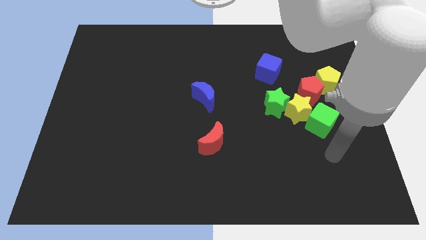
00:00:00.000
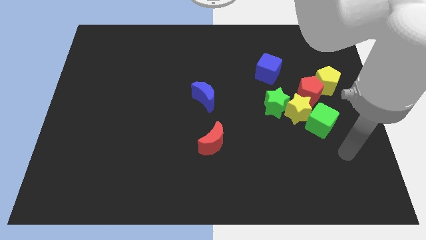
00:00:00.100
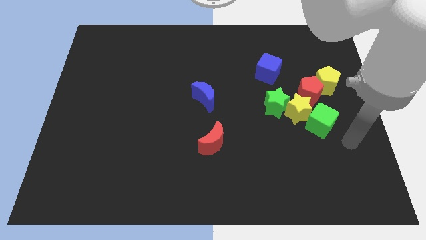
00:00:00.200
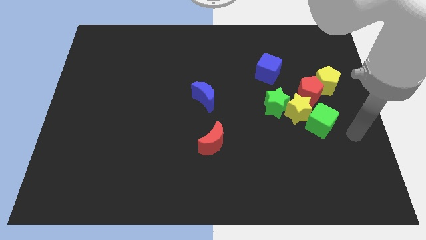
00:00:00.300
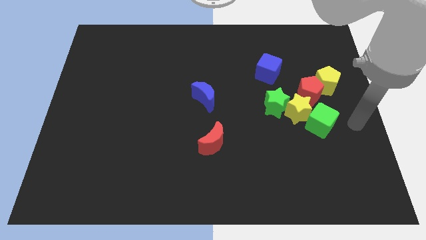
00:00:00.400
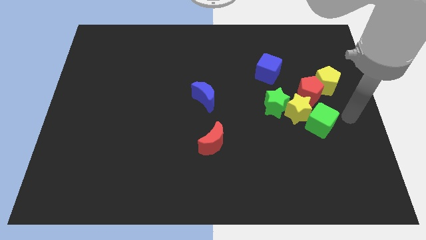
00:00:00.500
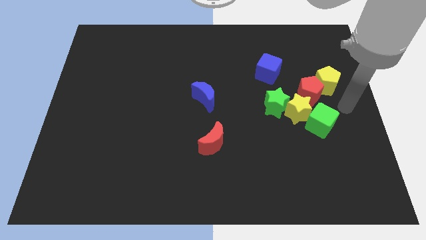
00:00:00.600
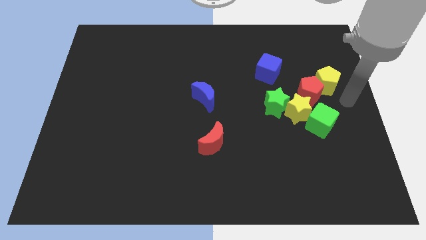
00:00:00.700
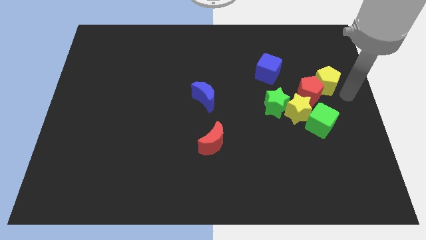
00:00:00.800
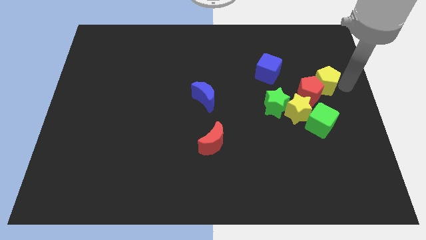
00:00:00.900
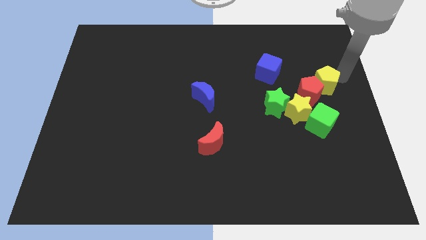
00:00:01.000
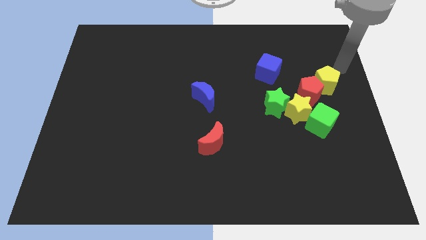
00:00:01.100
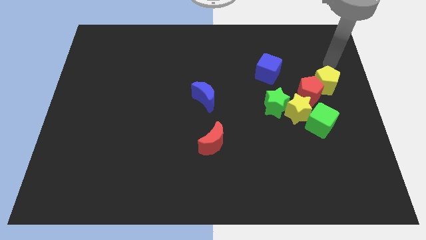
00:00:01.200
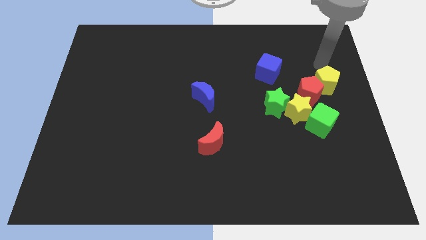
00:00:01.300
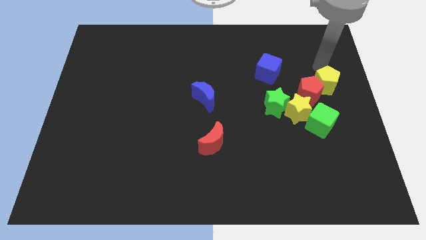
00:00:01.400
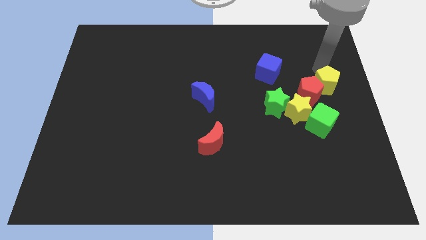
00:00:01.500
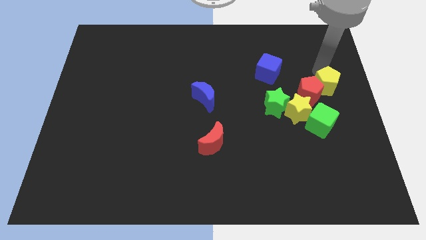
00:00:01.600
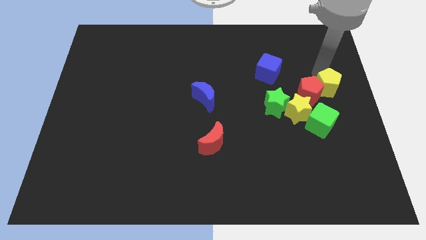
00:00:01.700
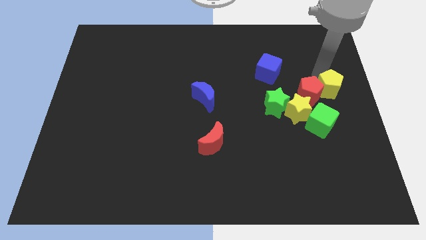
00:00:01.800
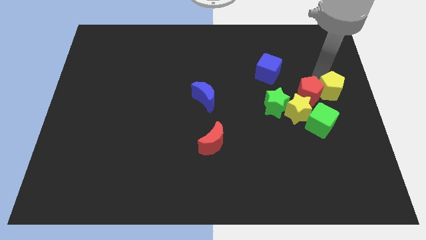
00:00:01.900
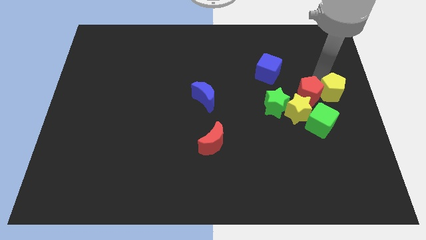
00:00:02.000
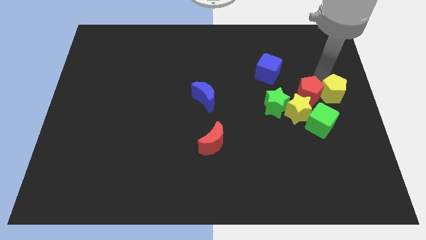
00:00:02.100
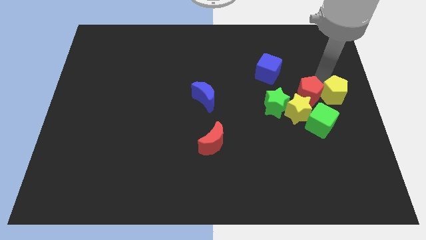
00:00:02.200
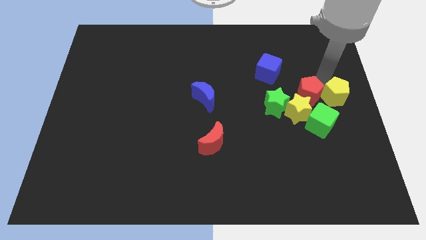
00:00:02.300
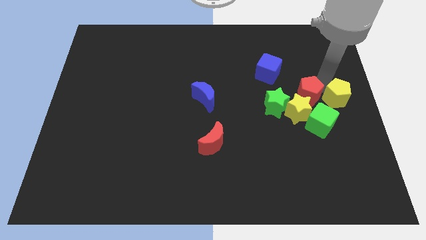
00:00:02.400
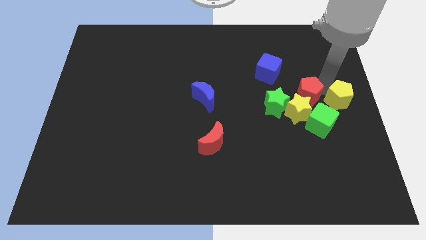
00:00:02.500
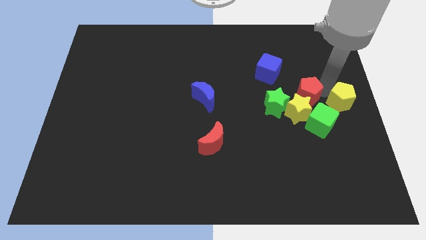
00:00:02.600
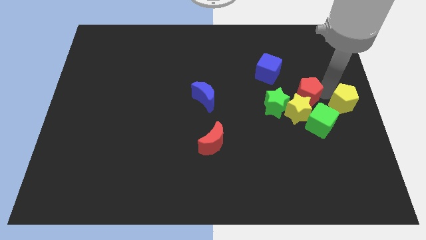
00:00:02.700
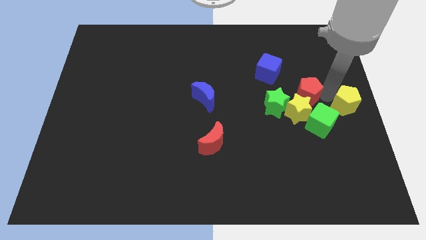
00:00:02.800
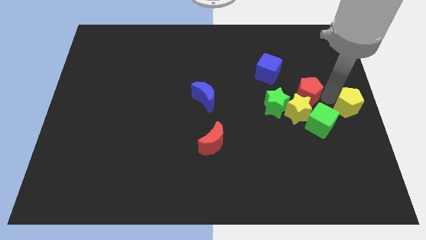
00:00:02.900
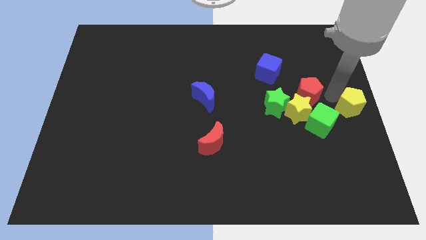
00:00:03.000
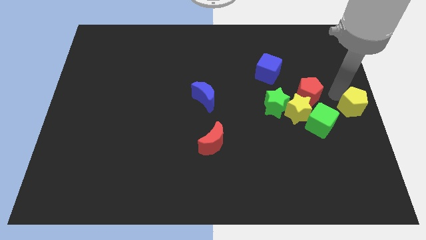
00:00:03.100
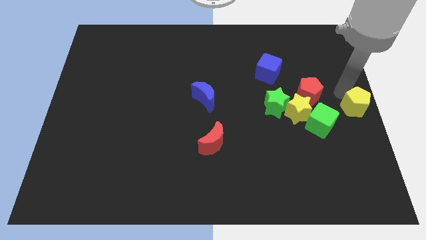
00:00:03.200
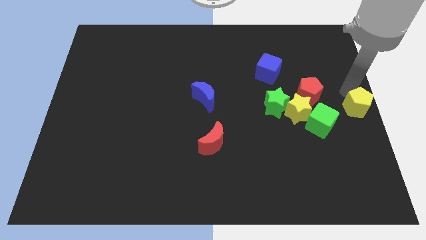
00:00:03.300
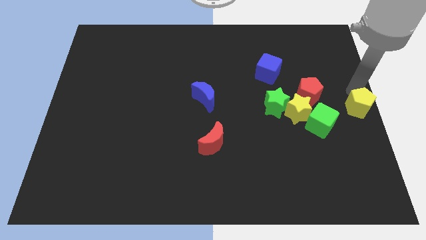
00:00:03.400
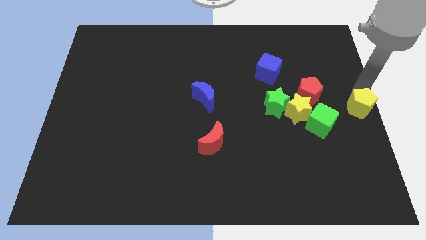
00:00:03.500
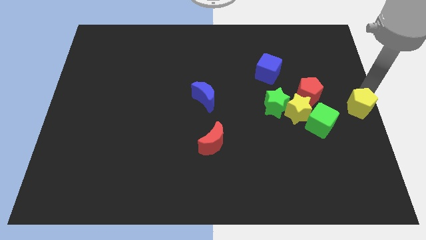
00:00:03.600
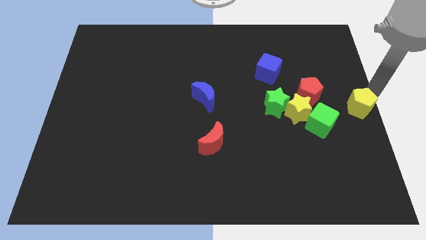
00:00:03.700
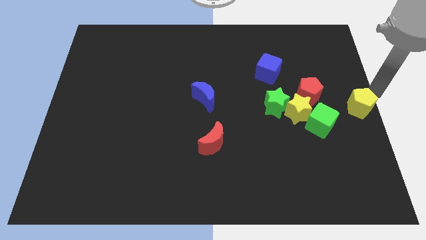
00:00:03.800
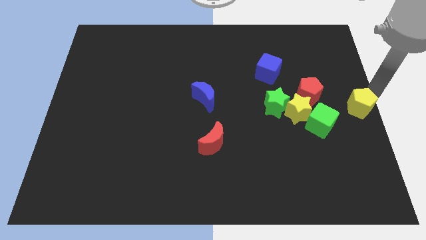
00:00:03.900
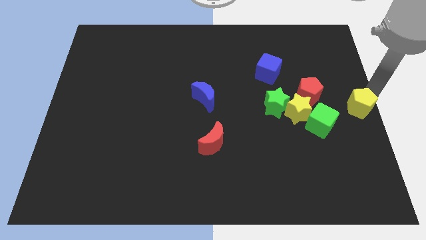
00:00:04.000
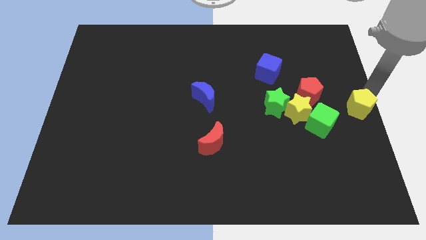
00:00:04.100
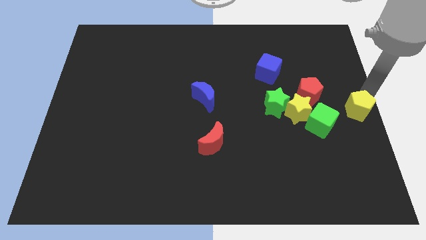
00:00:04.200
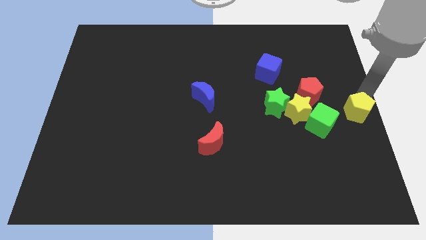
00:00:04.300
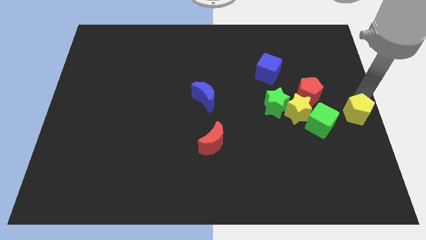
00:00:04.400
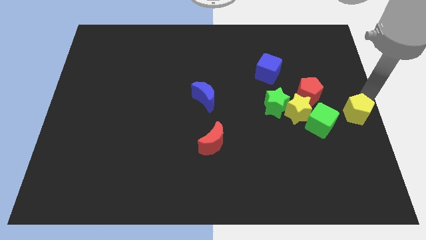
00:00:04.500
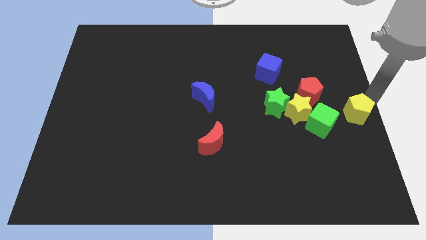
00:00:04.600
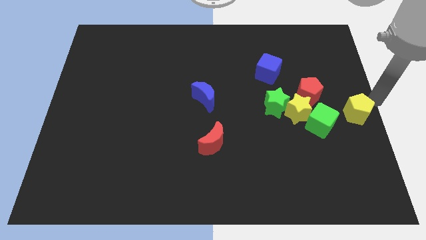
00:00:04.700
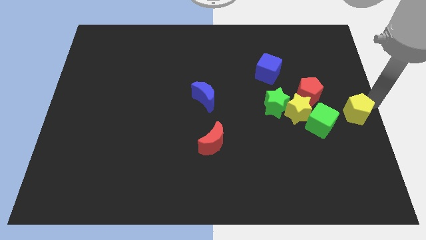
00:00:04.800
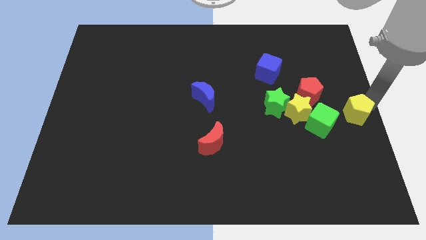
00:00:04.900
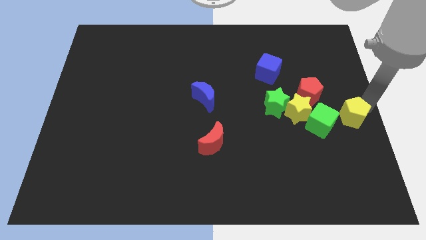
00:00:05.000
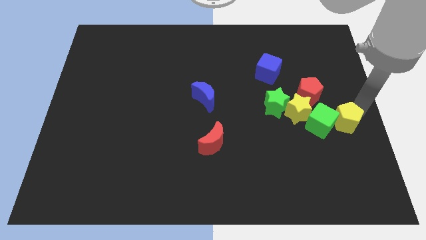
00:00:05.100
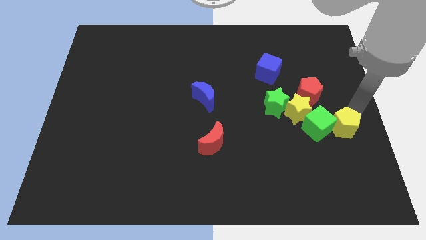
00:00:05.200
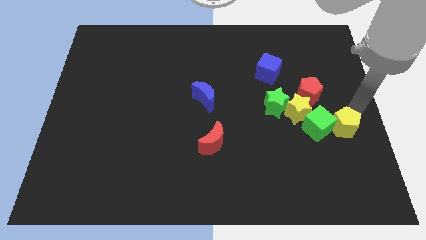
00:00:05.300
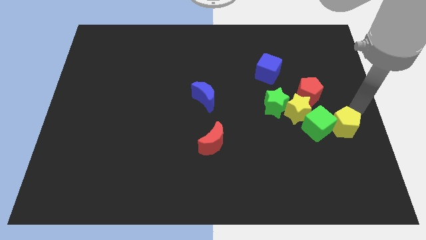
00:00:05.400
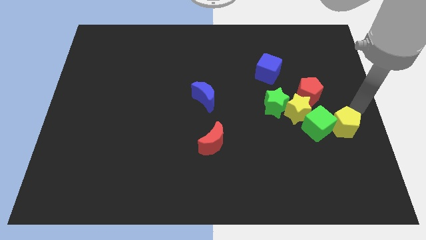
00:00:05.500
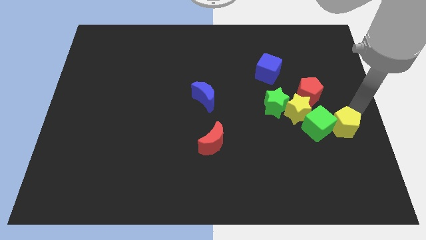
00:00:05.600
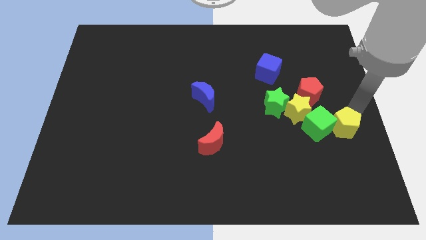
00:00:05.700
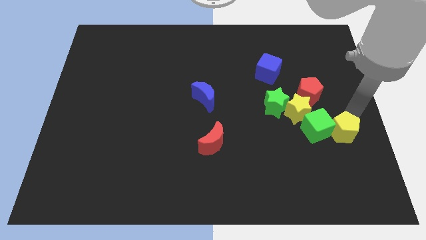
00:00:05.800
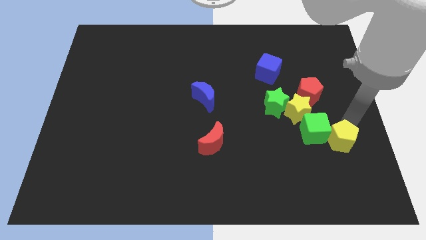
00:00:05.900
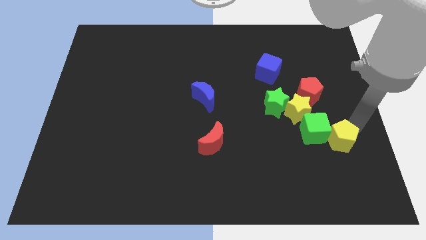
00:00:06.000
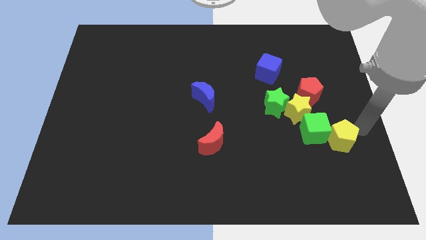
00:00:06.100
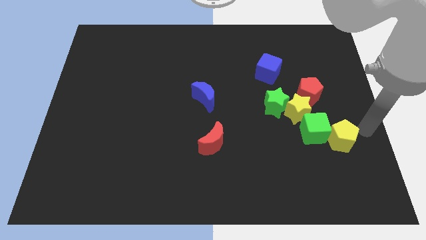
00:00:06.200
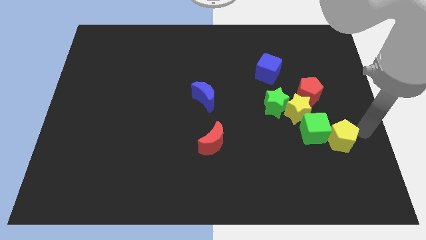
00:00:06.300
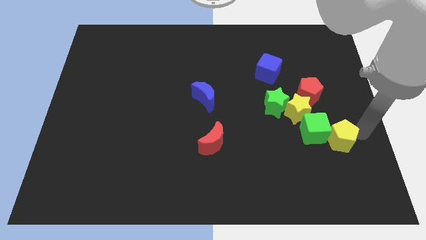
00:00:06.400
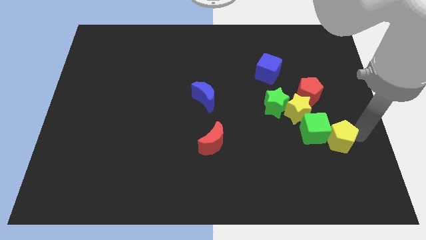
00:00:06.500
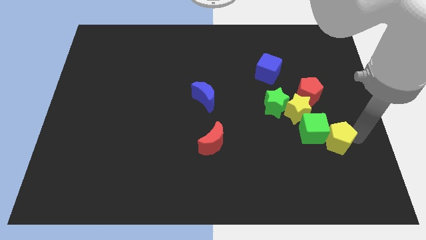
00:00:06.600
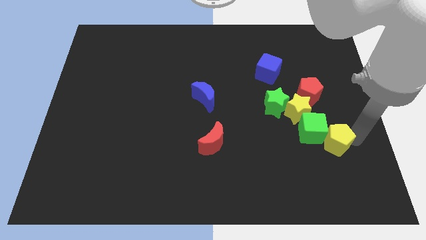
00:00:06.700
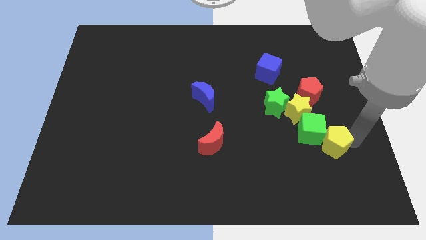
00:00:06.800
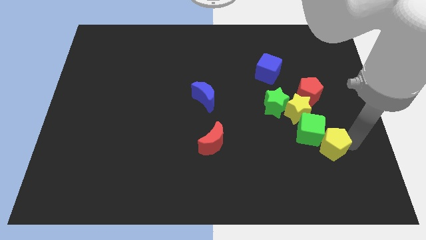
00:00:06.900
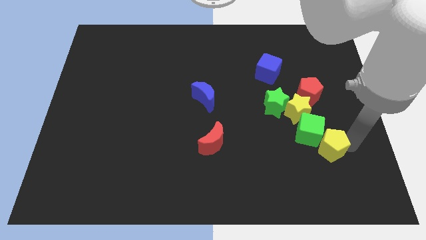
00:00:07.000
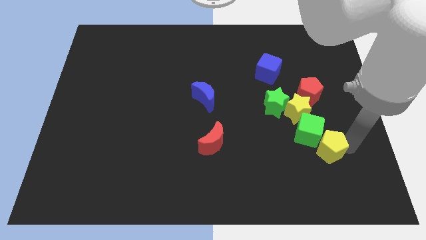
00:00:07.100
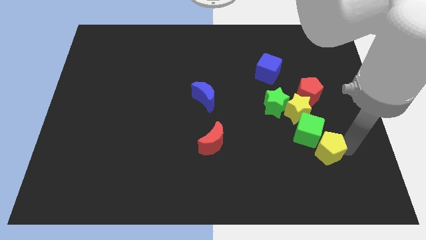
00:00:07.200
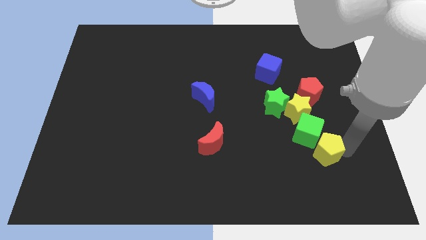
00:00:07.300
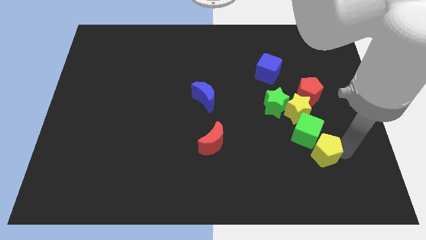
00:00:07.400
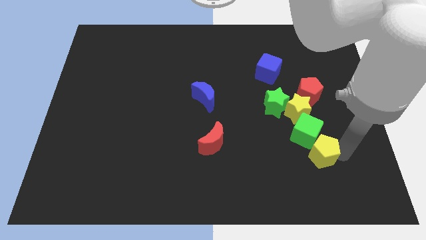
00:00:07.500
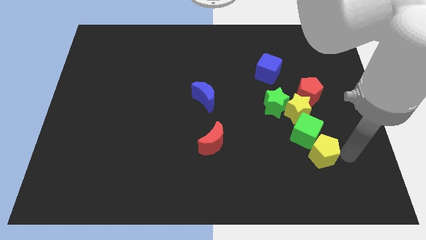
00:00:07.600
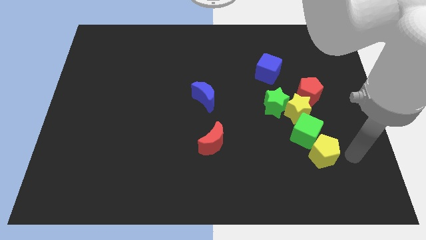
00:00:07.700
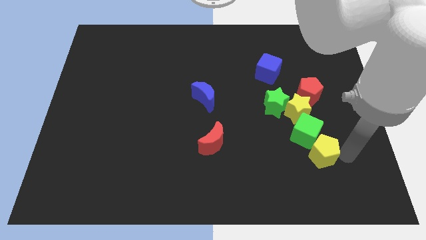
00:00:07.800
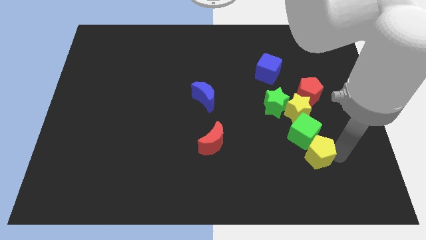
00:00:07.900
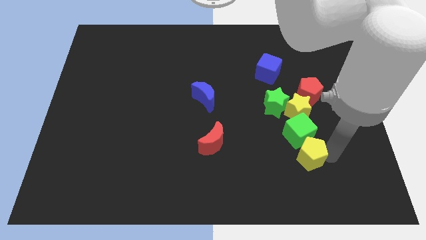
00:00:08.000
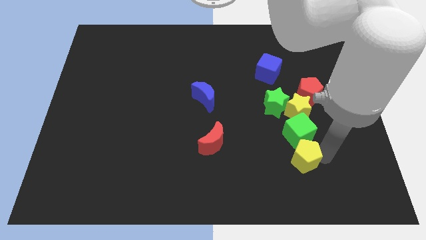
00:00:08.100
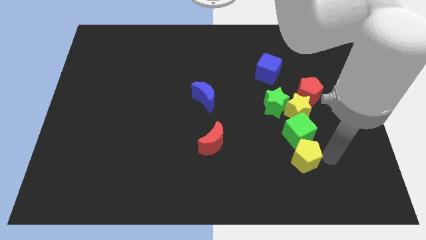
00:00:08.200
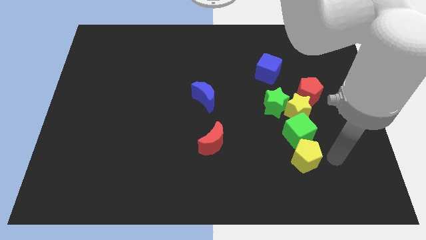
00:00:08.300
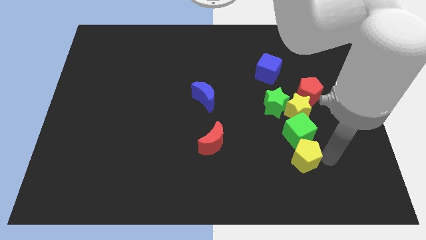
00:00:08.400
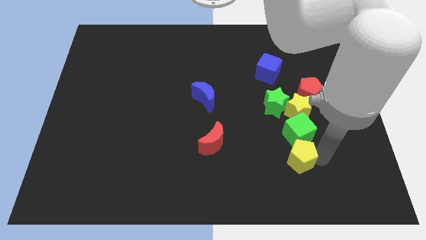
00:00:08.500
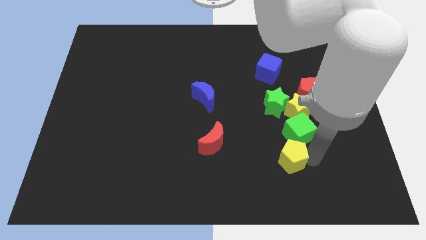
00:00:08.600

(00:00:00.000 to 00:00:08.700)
move the yellow pentagon down and left diagonally
